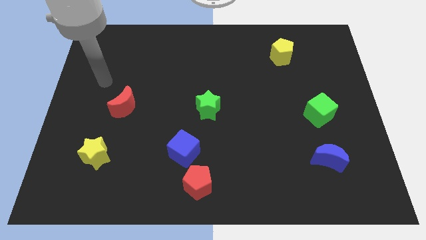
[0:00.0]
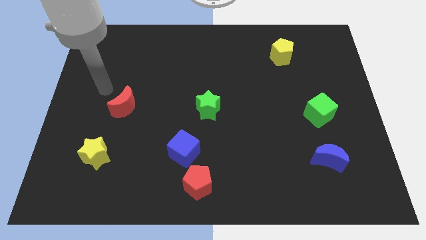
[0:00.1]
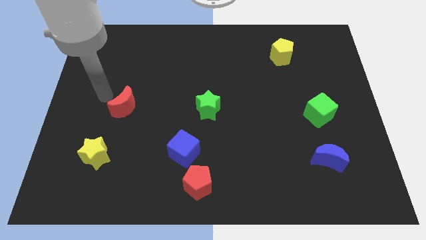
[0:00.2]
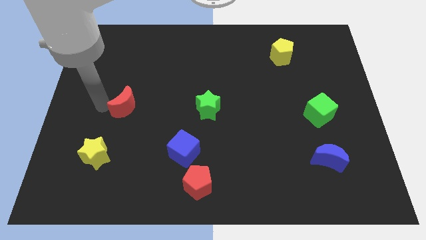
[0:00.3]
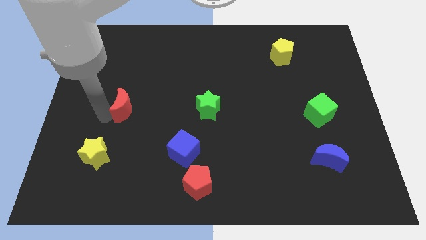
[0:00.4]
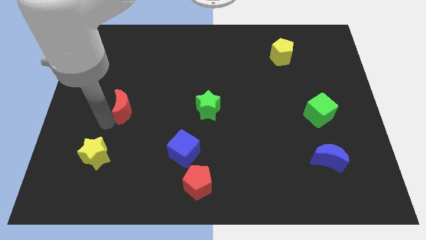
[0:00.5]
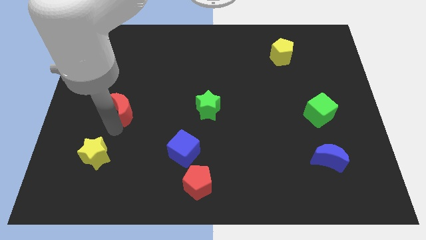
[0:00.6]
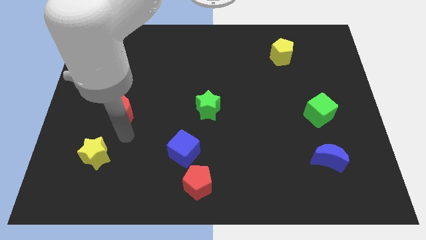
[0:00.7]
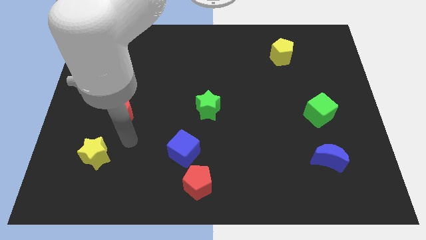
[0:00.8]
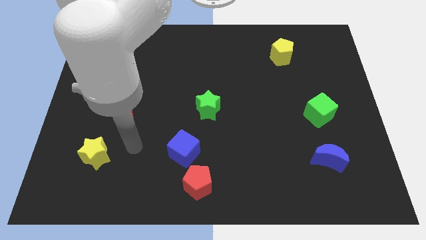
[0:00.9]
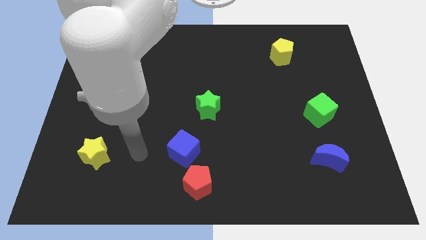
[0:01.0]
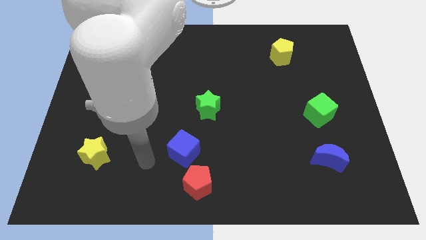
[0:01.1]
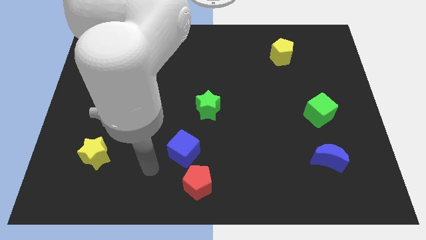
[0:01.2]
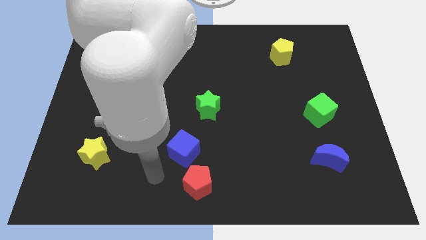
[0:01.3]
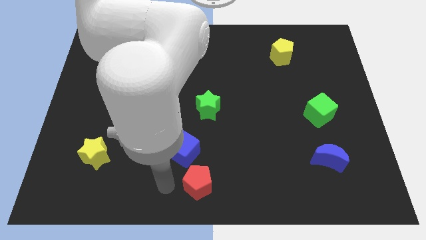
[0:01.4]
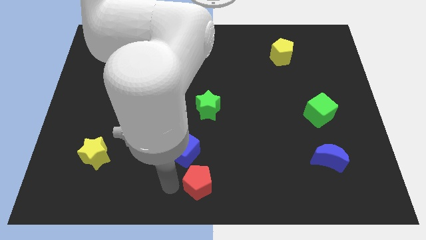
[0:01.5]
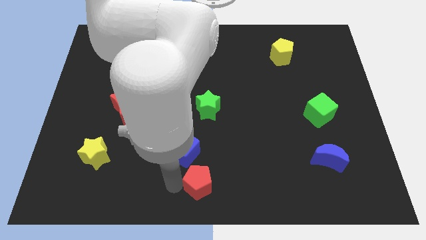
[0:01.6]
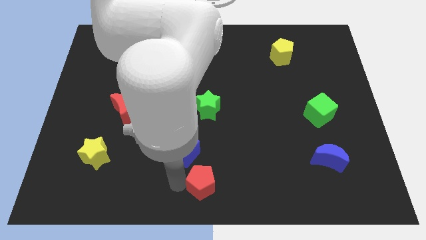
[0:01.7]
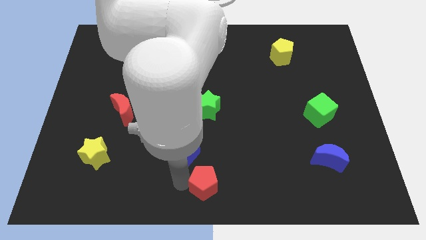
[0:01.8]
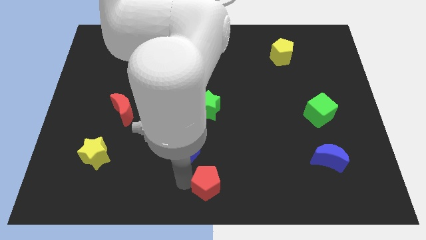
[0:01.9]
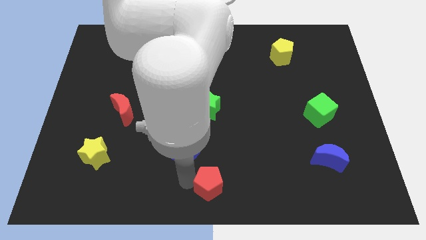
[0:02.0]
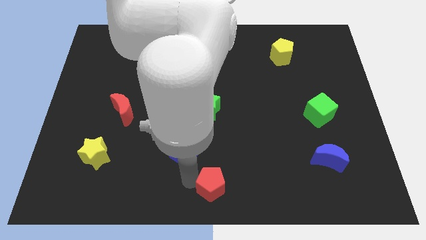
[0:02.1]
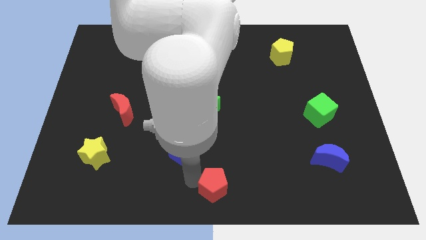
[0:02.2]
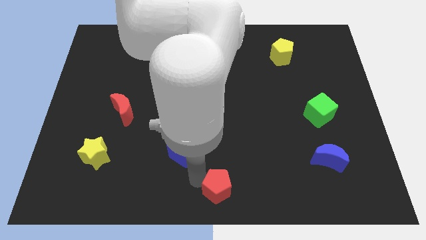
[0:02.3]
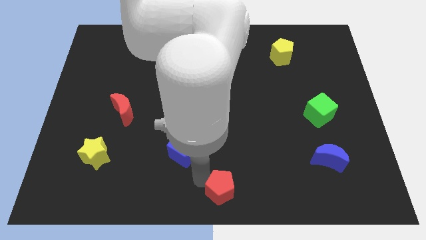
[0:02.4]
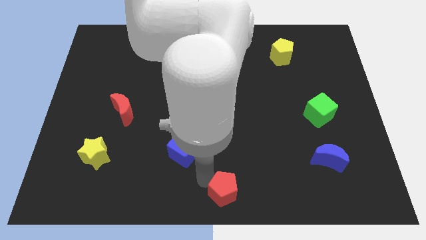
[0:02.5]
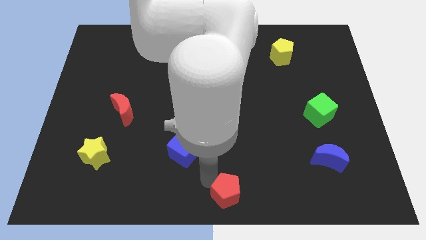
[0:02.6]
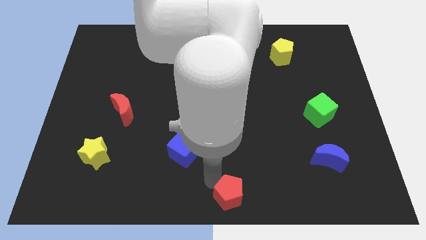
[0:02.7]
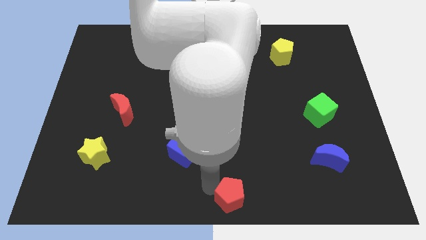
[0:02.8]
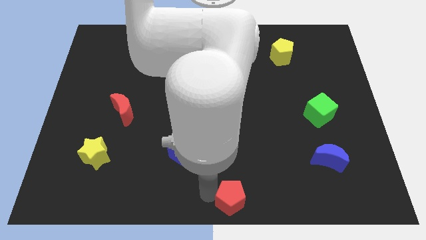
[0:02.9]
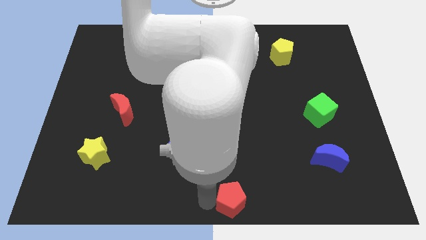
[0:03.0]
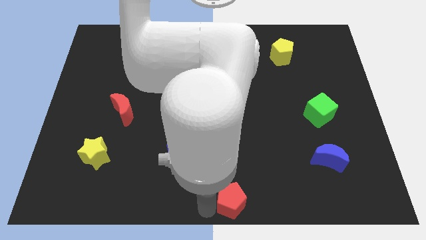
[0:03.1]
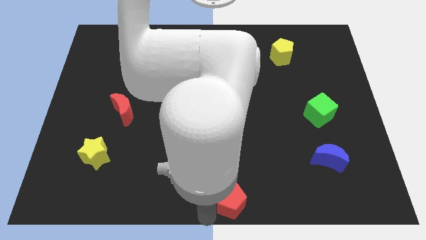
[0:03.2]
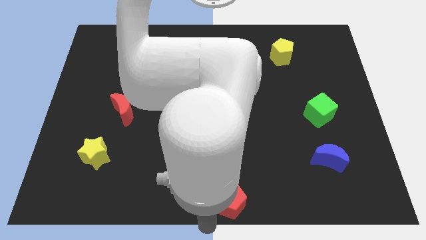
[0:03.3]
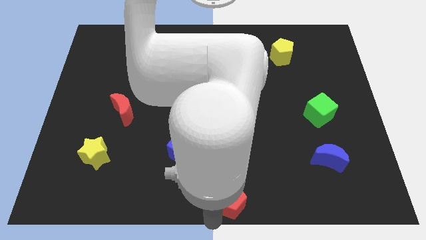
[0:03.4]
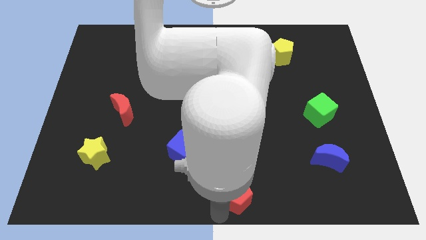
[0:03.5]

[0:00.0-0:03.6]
slightly move the red pentagon right

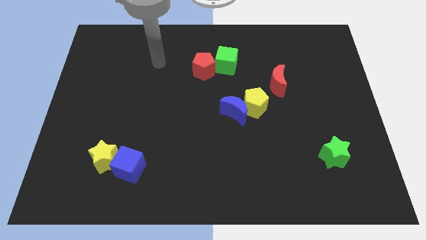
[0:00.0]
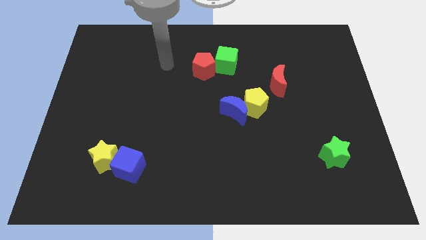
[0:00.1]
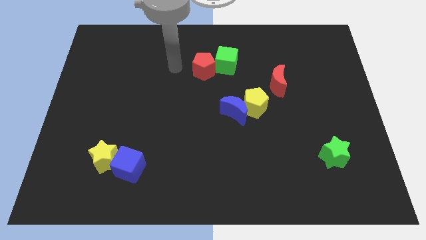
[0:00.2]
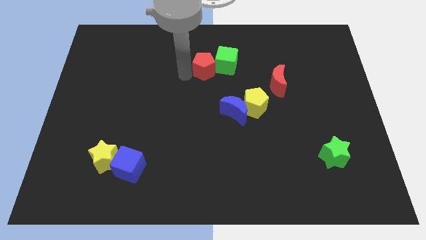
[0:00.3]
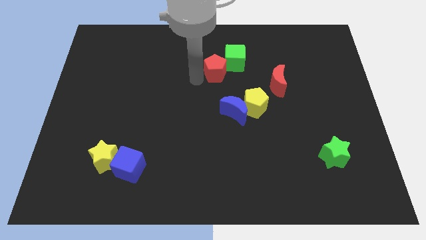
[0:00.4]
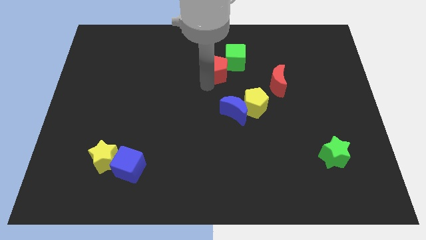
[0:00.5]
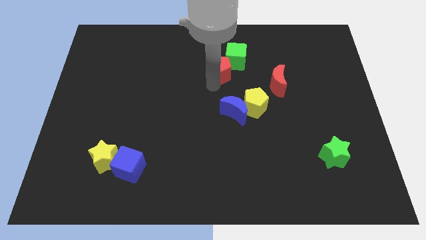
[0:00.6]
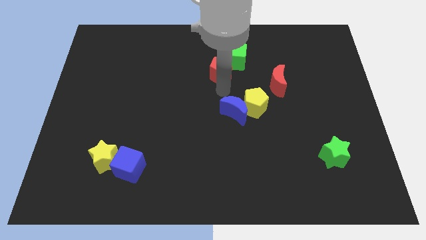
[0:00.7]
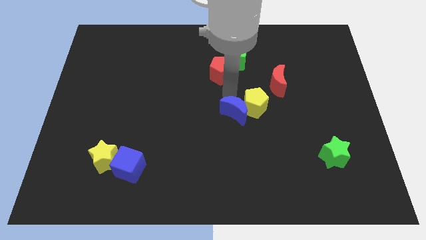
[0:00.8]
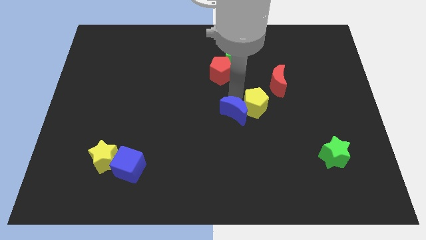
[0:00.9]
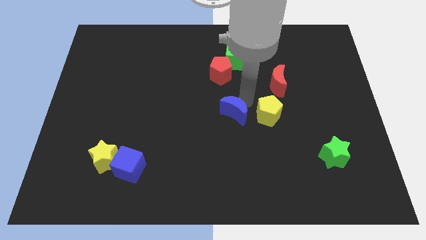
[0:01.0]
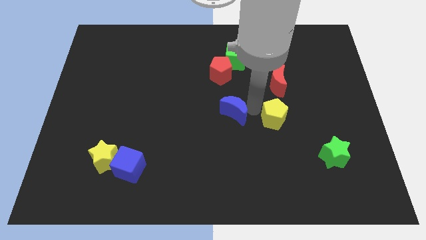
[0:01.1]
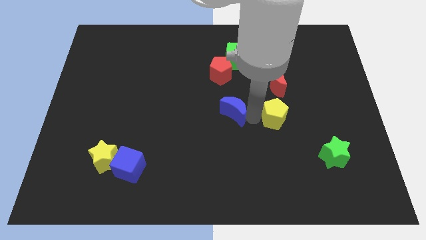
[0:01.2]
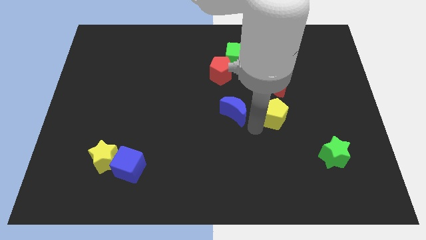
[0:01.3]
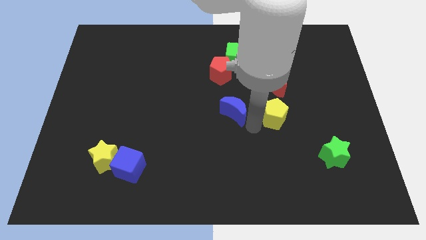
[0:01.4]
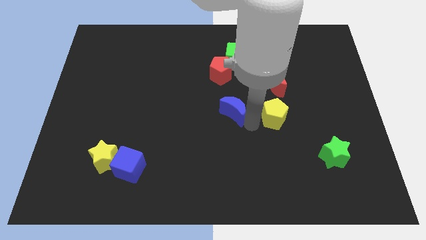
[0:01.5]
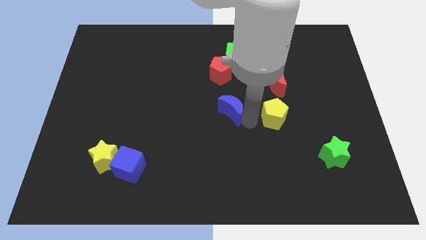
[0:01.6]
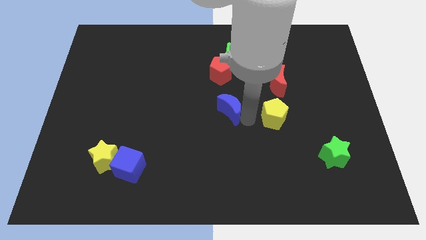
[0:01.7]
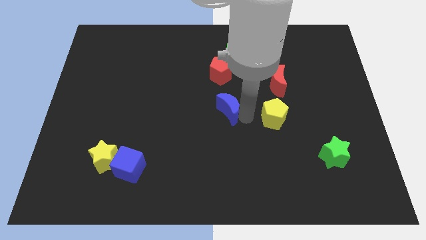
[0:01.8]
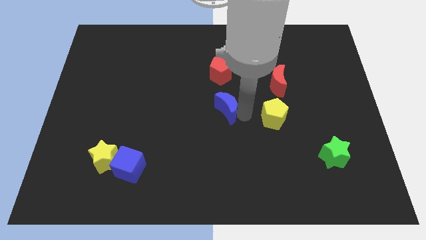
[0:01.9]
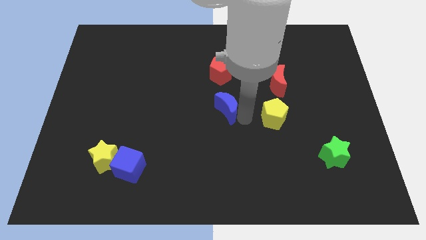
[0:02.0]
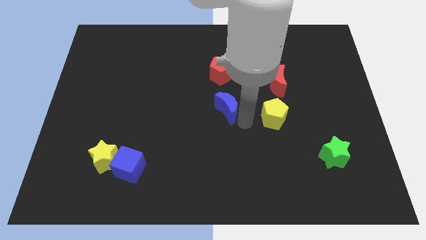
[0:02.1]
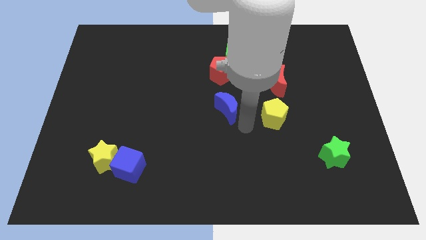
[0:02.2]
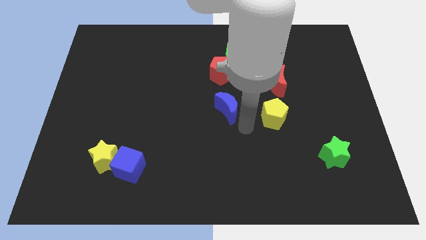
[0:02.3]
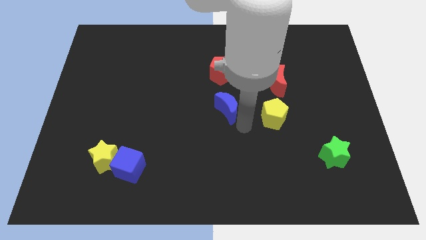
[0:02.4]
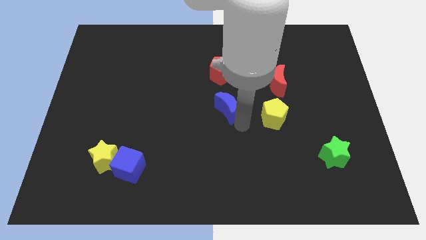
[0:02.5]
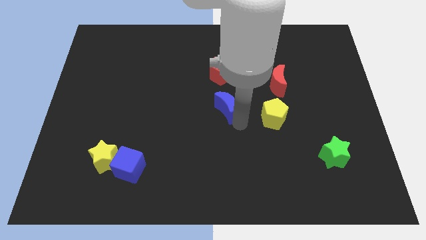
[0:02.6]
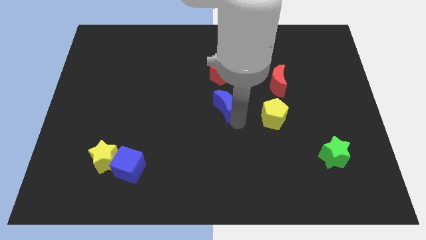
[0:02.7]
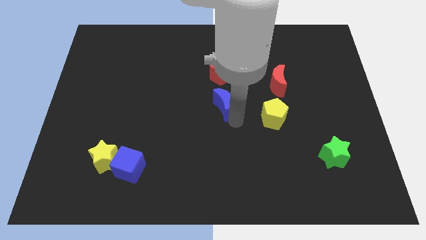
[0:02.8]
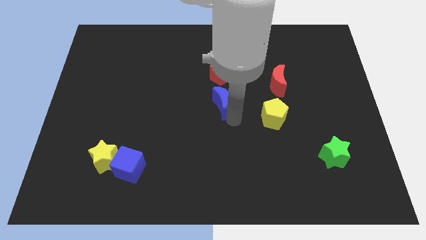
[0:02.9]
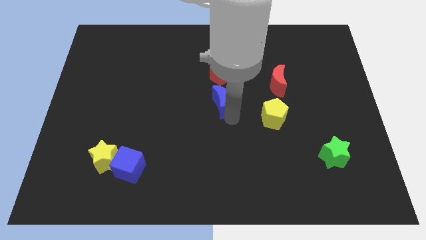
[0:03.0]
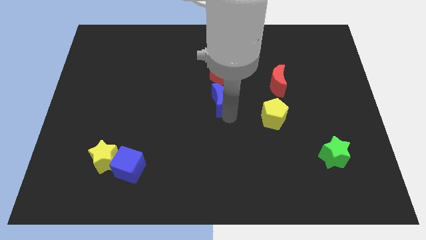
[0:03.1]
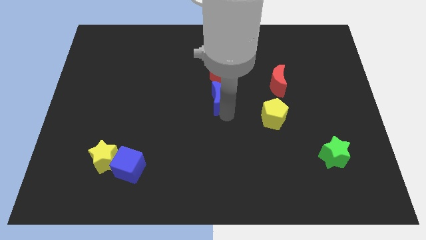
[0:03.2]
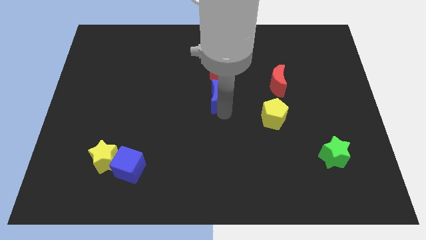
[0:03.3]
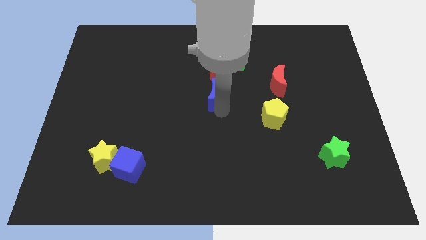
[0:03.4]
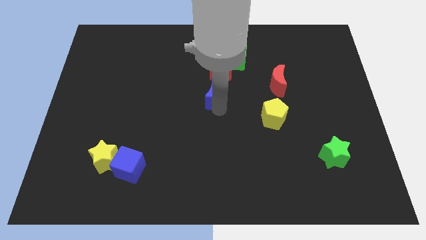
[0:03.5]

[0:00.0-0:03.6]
slightly push the blue moon diagonally up and to the left

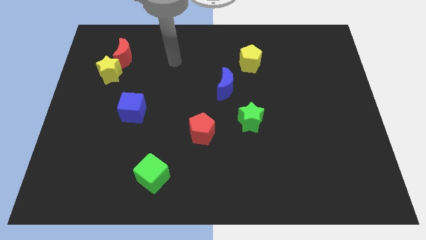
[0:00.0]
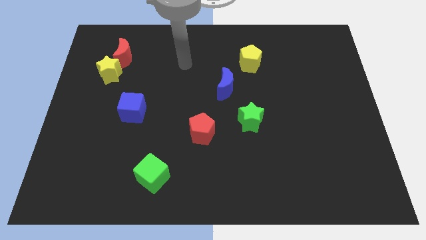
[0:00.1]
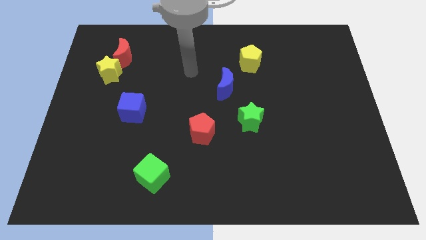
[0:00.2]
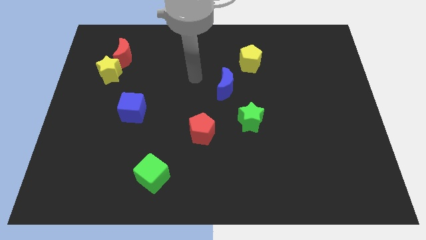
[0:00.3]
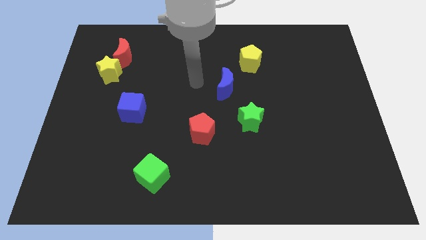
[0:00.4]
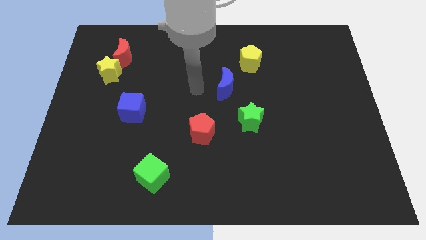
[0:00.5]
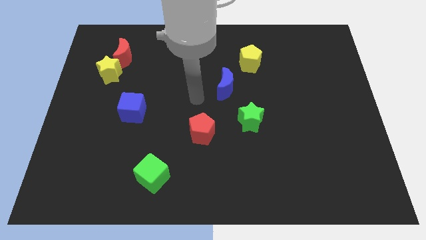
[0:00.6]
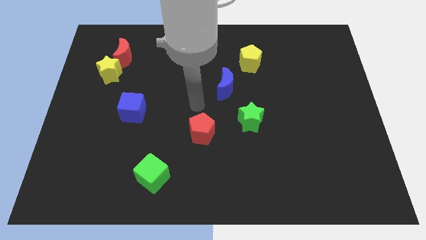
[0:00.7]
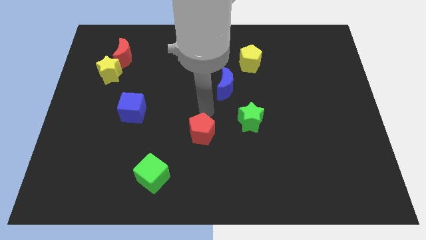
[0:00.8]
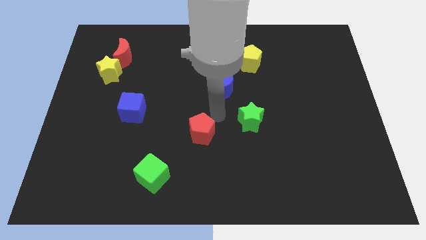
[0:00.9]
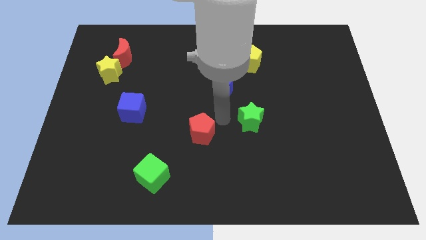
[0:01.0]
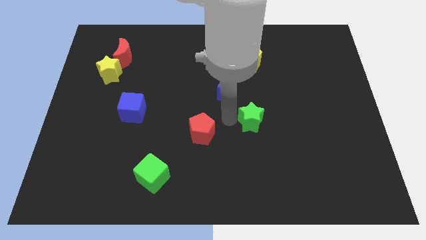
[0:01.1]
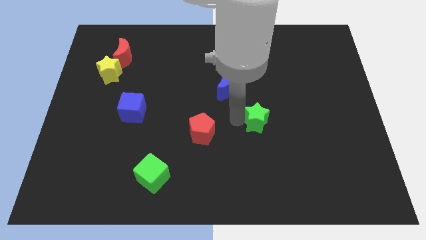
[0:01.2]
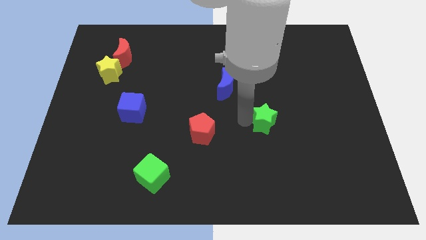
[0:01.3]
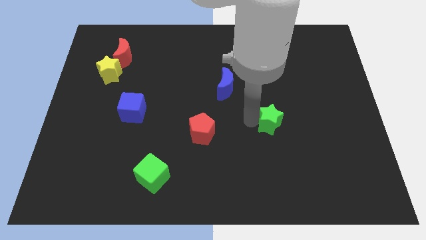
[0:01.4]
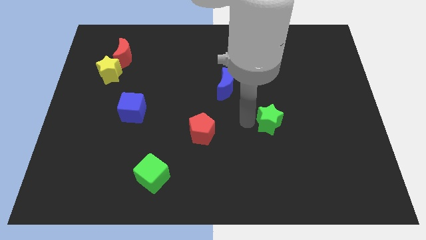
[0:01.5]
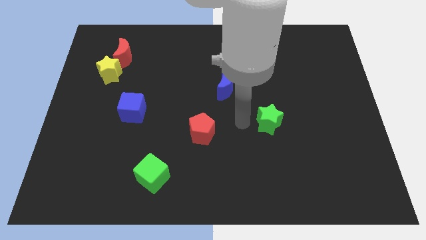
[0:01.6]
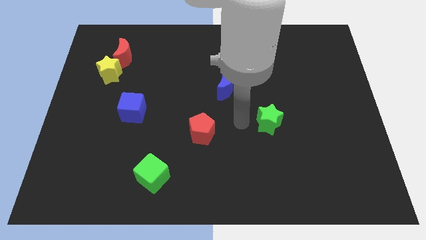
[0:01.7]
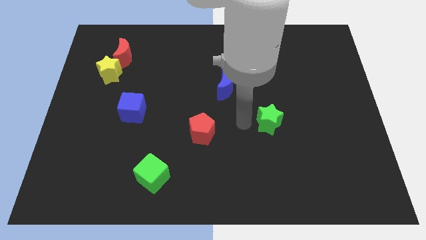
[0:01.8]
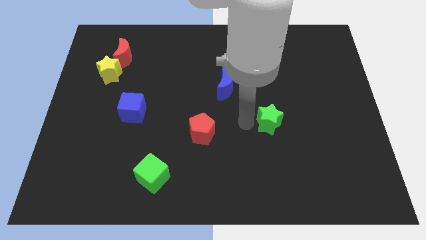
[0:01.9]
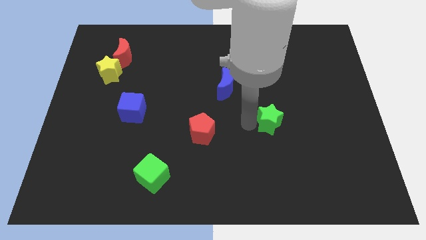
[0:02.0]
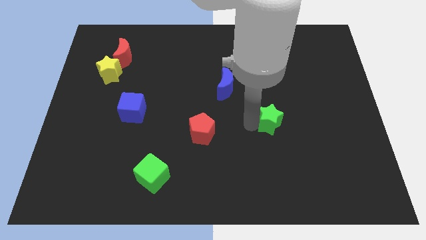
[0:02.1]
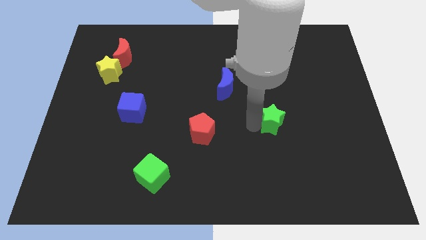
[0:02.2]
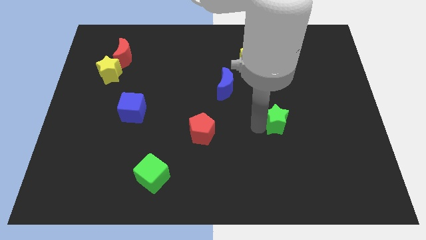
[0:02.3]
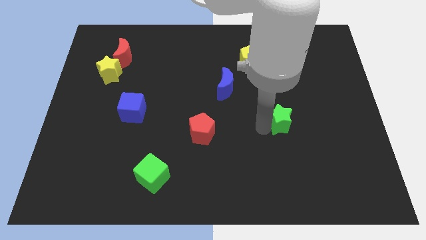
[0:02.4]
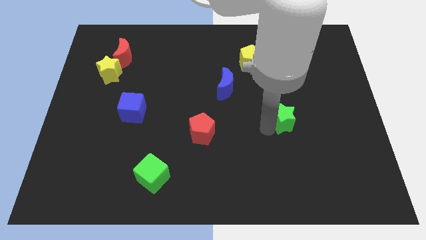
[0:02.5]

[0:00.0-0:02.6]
slightly move the green star to the right
